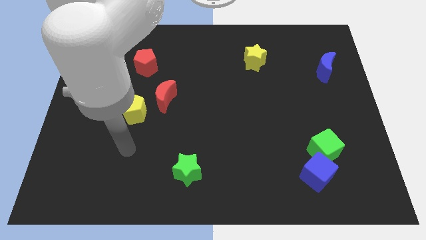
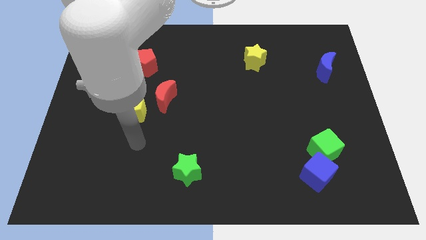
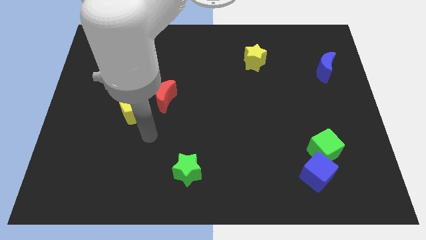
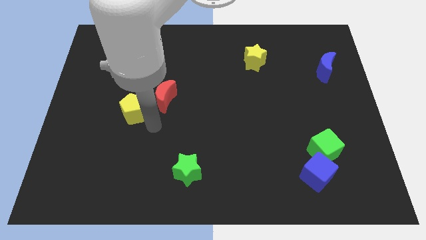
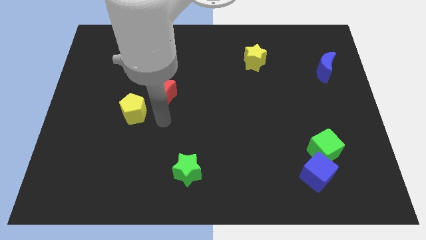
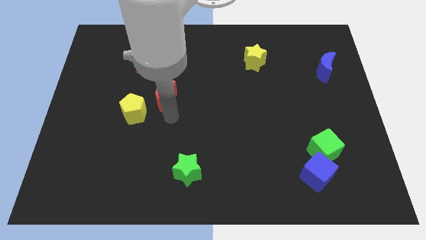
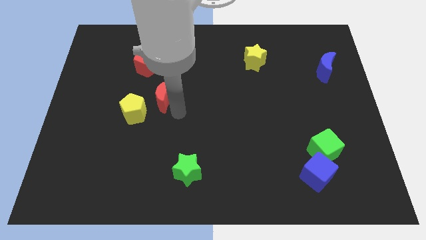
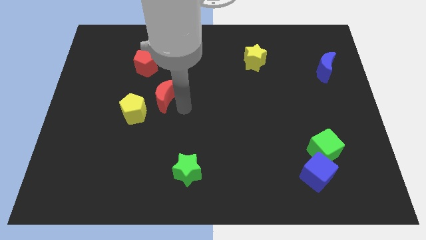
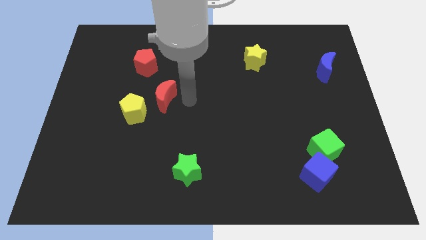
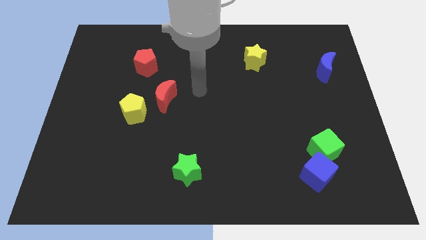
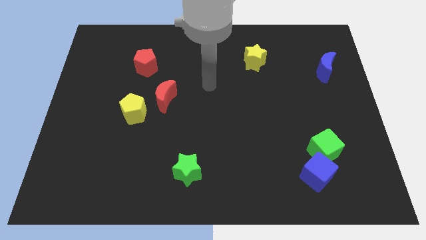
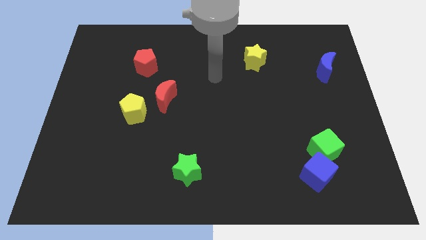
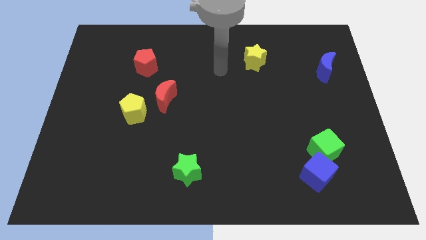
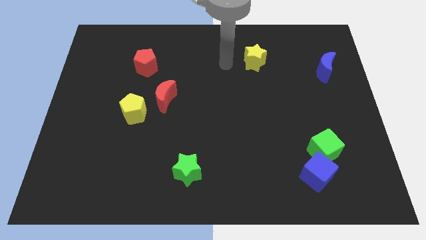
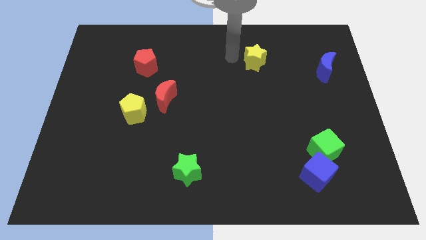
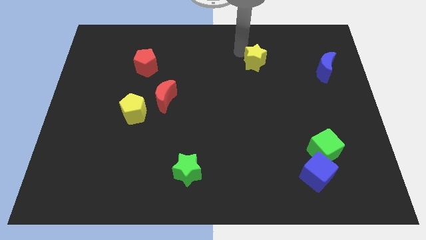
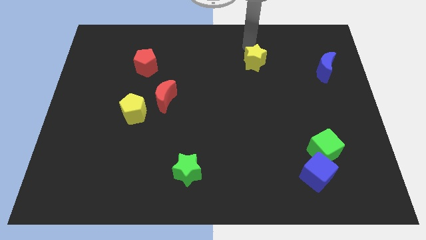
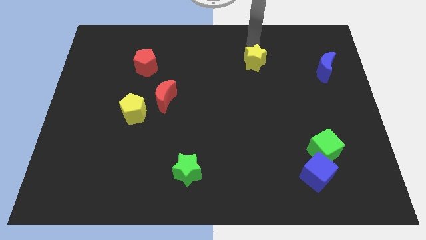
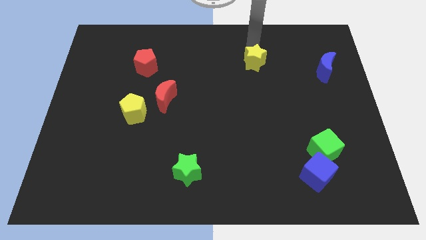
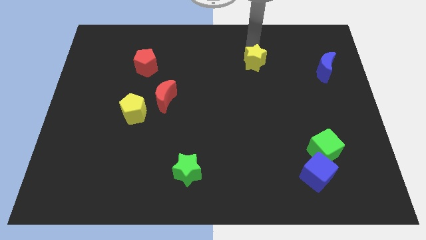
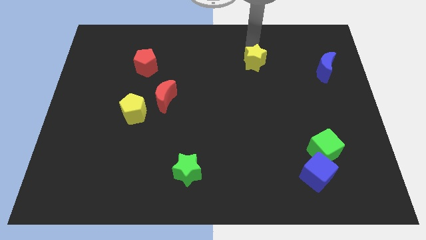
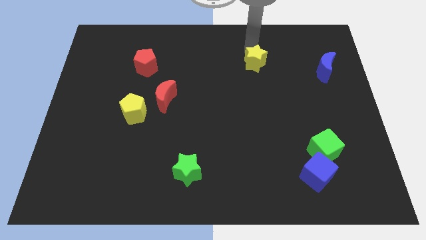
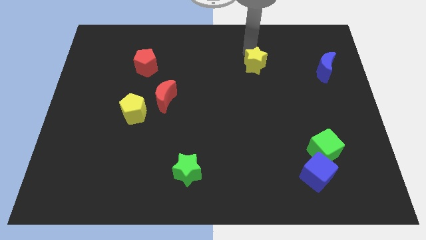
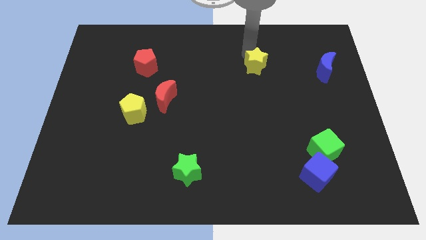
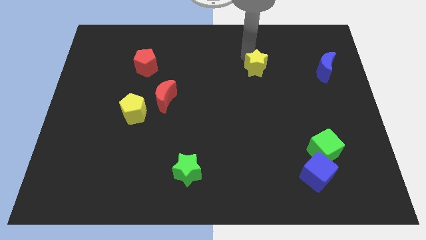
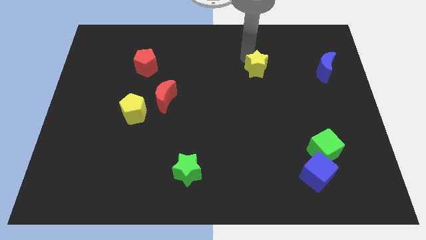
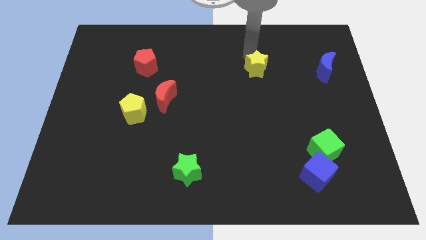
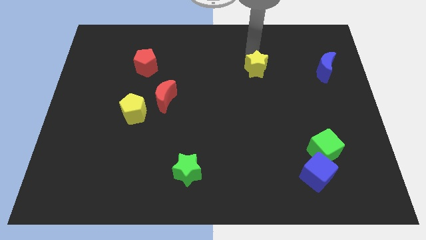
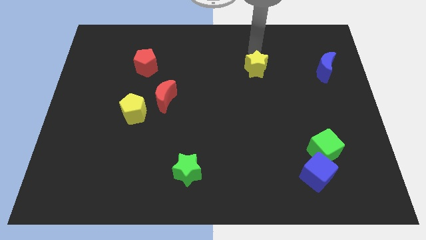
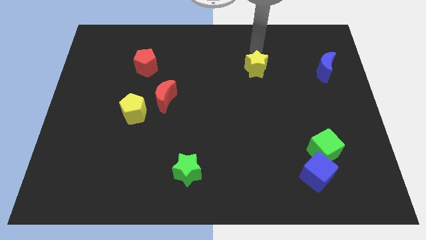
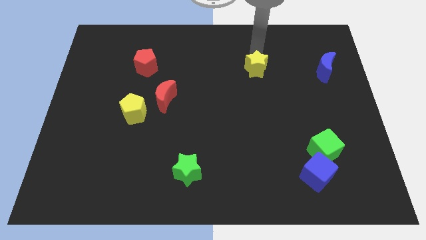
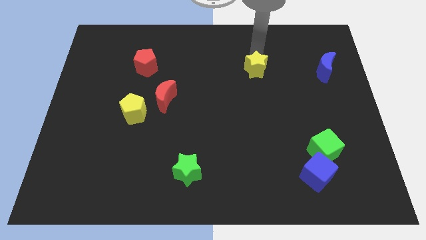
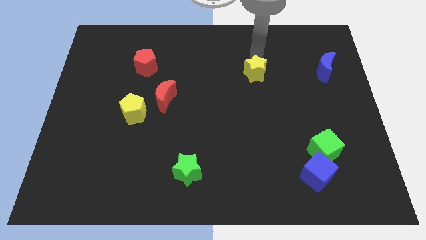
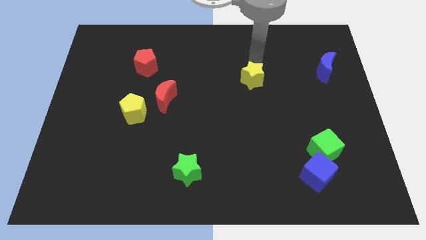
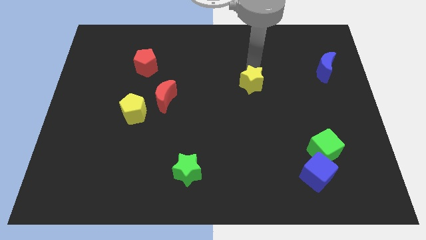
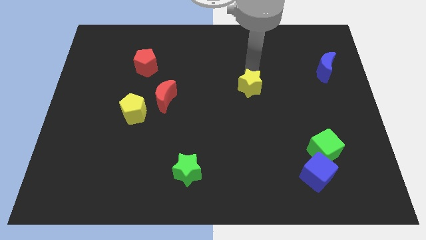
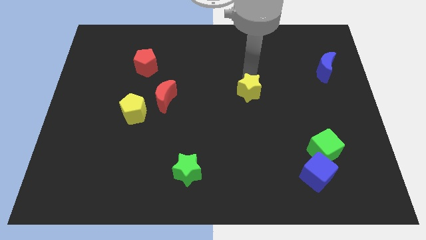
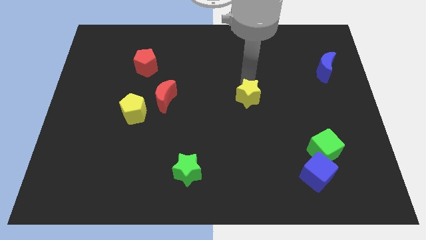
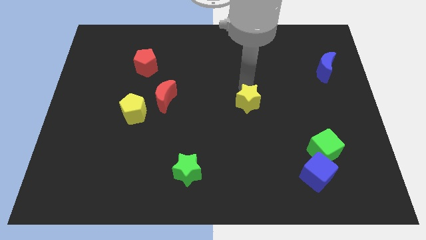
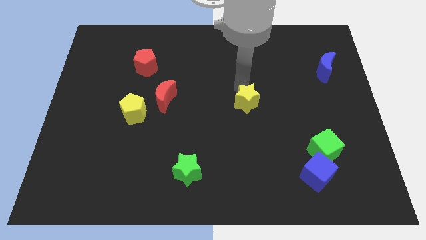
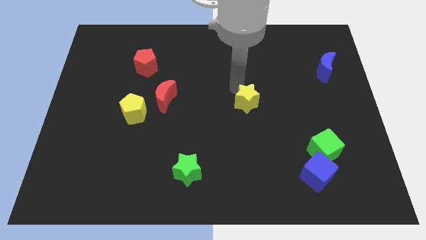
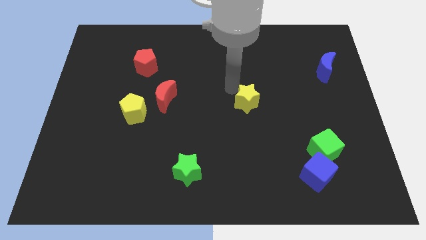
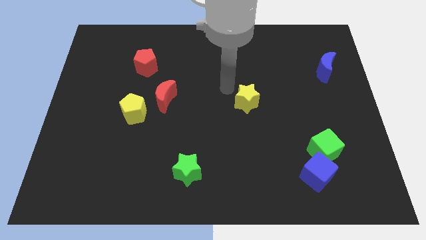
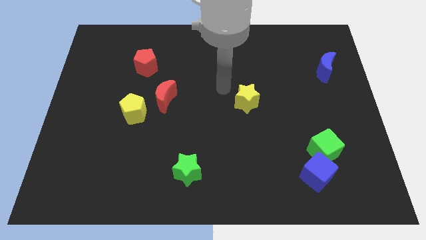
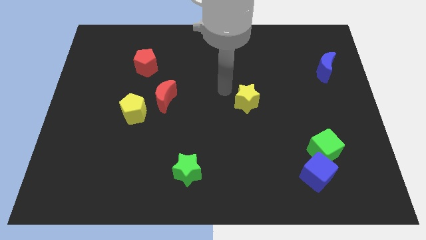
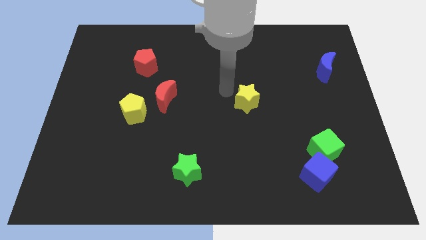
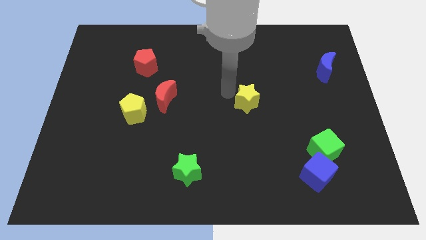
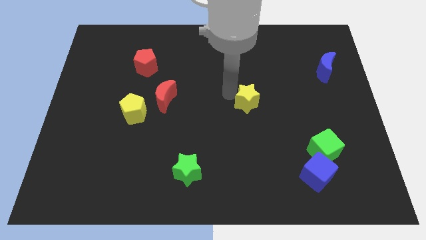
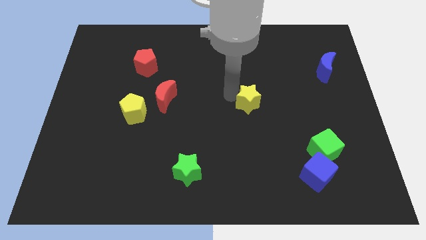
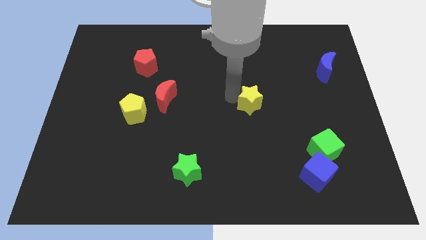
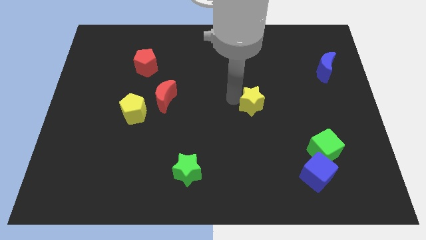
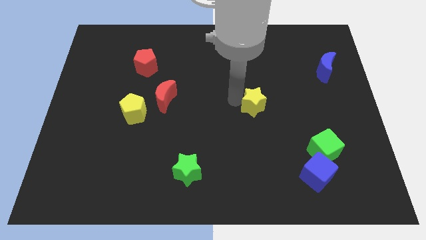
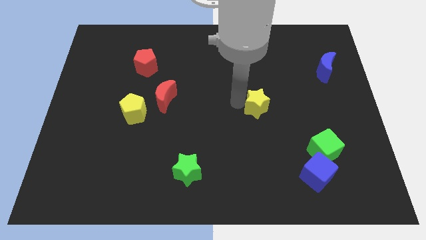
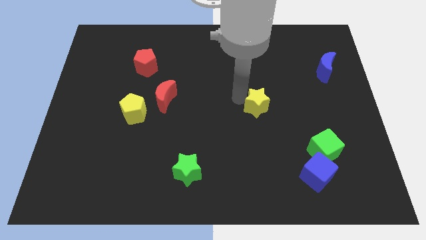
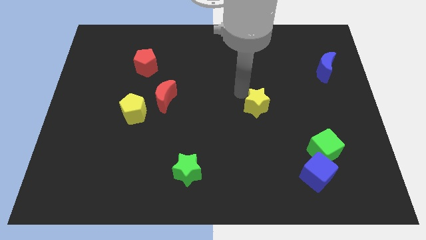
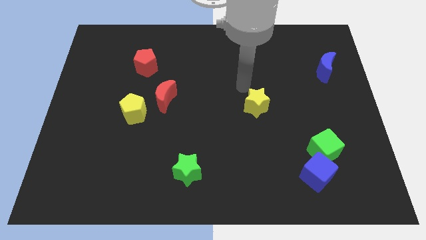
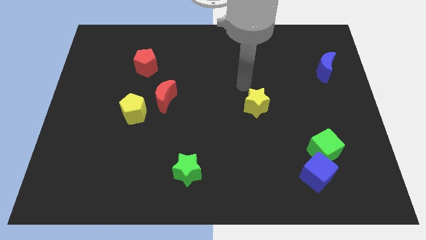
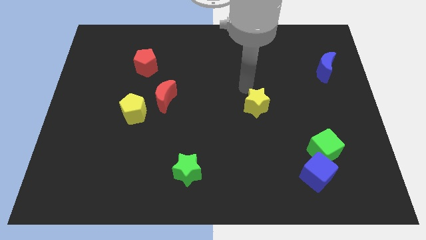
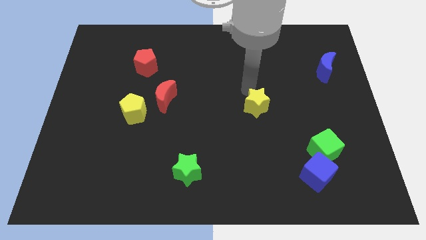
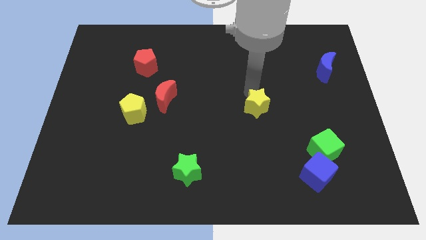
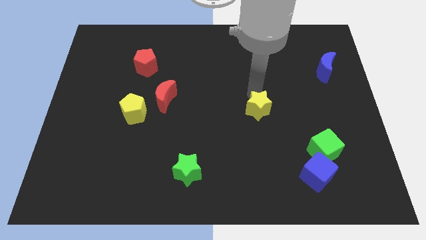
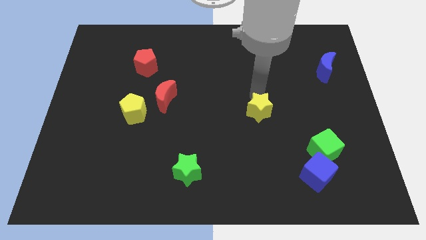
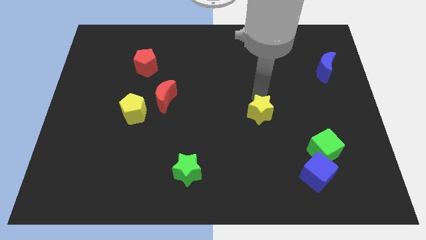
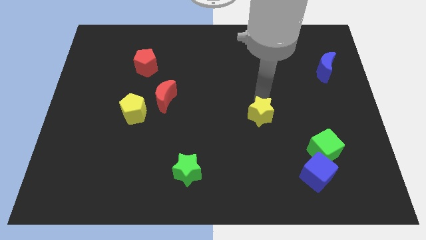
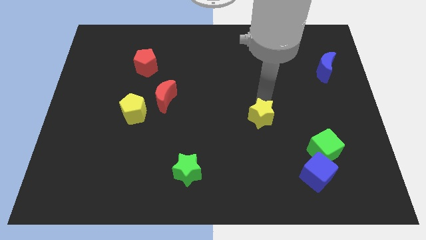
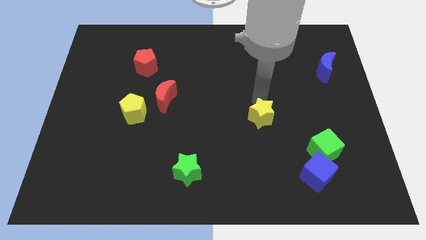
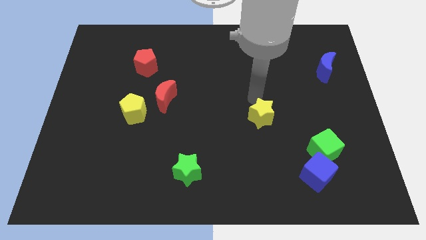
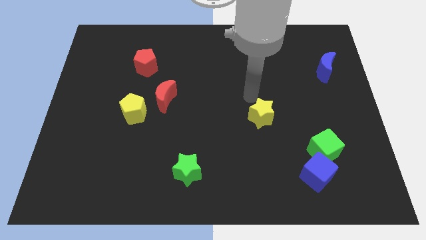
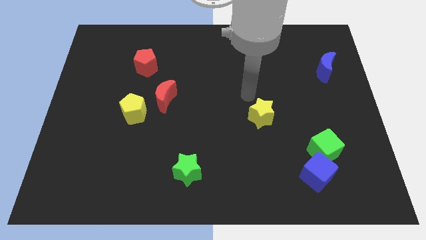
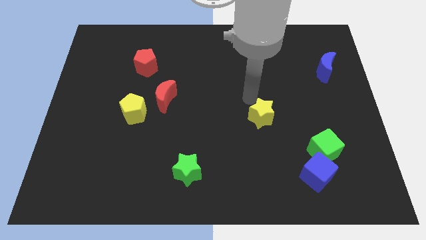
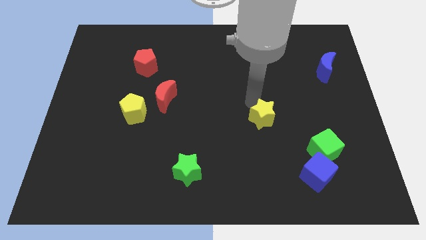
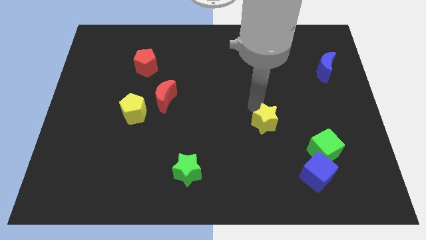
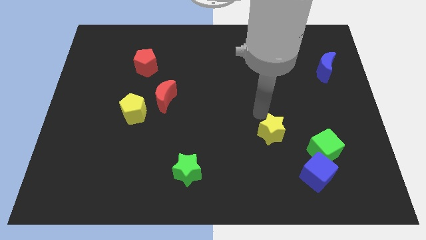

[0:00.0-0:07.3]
put the yellow star to the left of the green cube

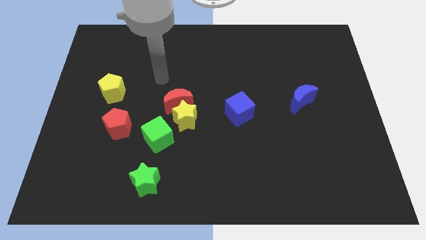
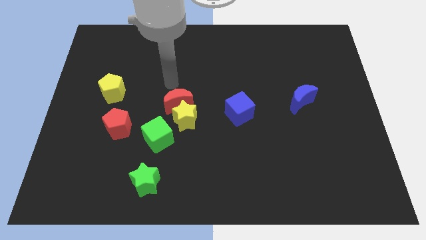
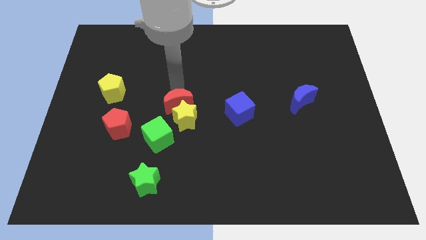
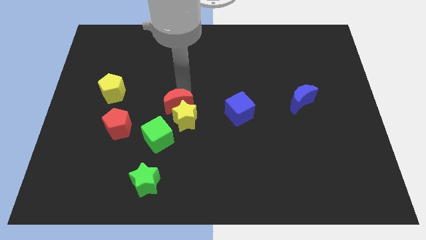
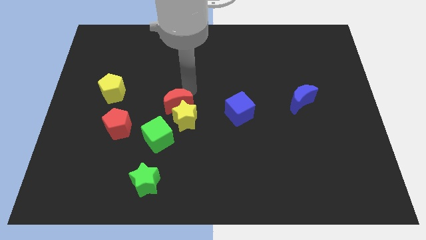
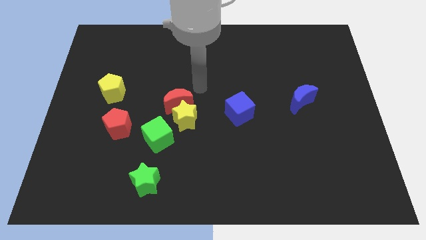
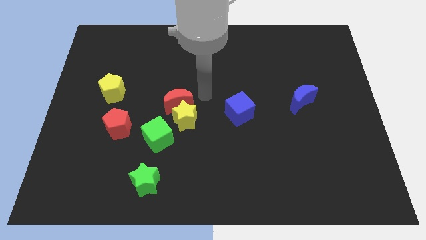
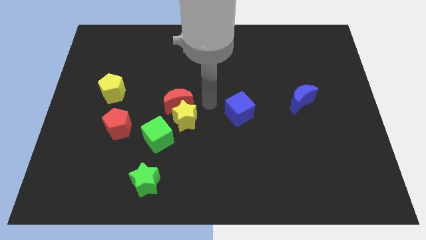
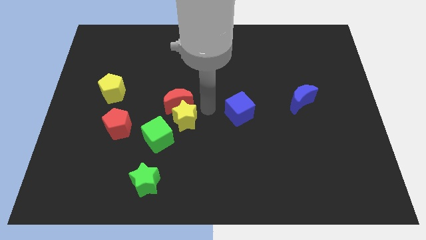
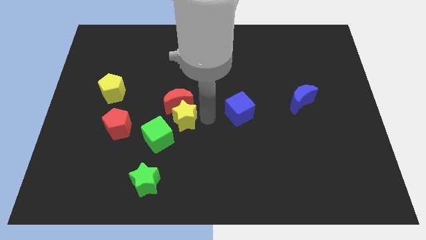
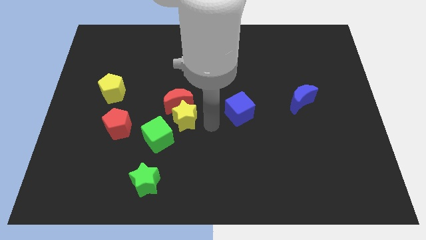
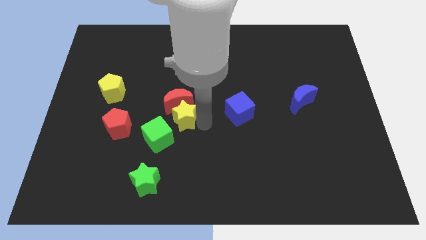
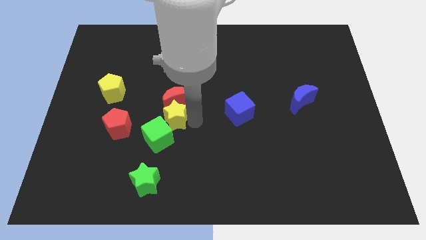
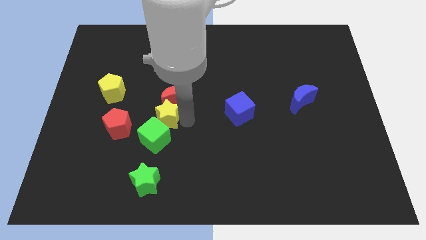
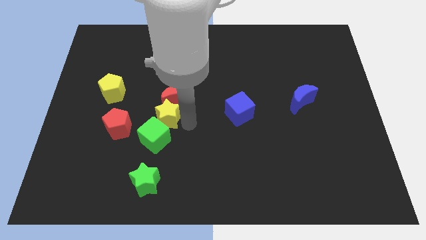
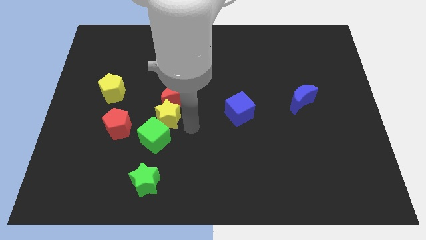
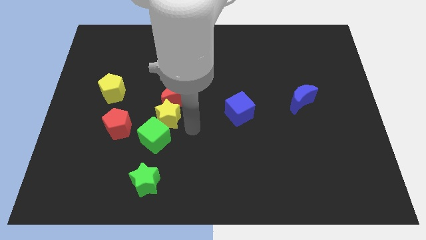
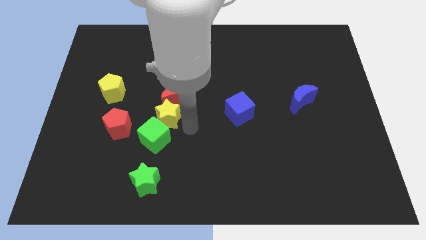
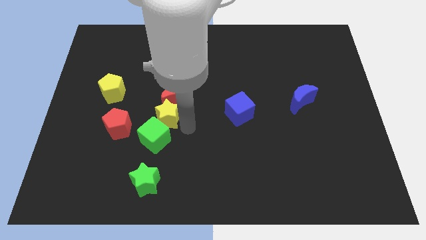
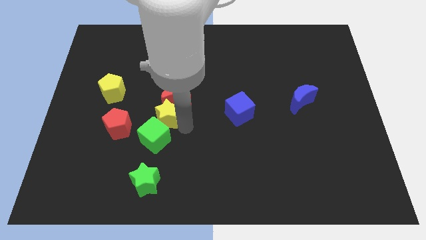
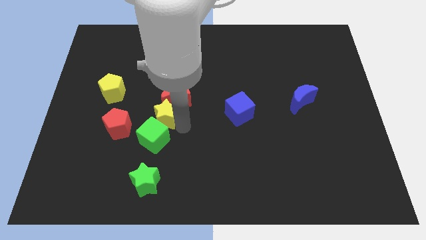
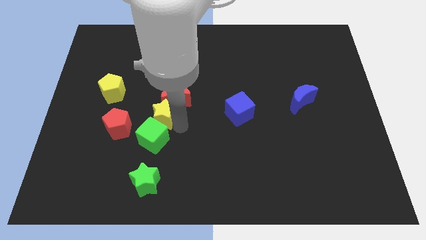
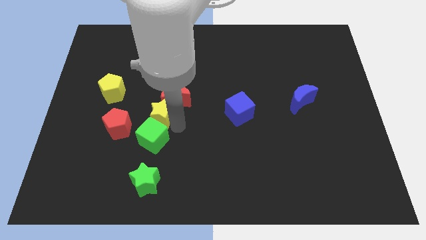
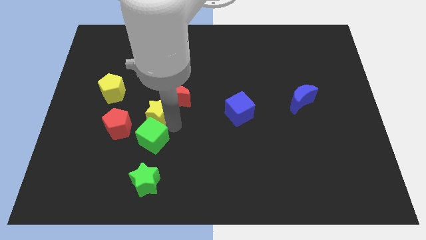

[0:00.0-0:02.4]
slide the yellow star just left of the red moon
